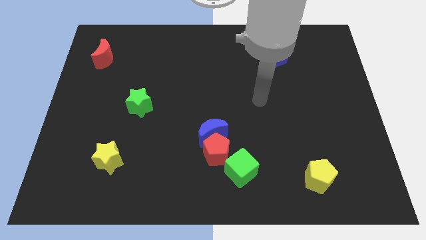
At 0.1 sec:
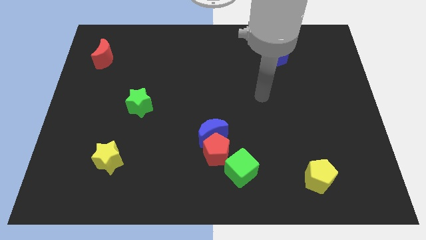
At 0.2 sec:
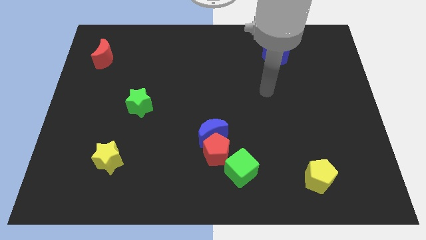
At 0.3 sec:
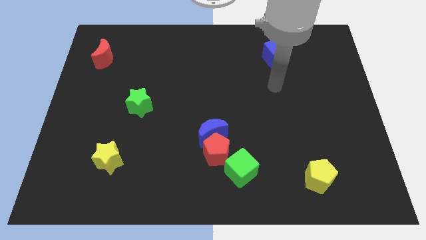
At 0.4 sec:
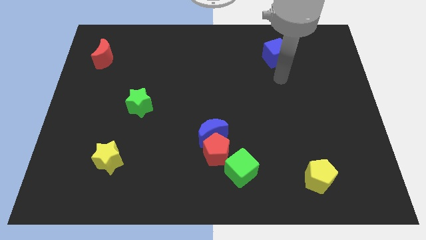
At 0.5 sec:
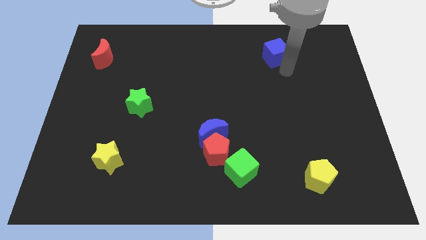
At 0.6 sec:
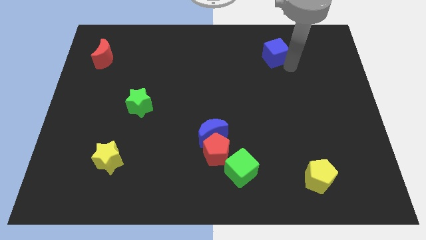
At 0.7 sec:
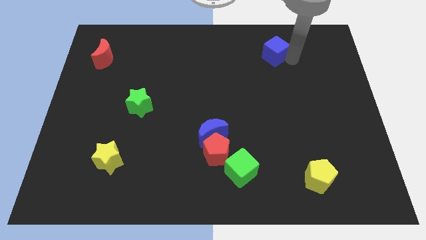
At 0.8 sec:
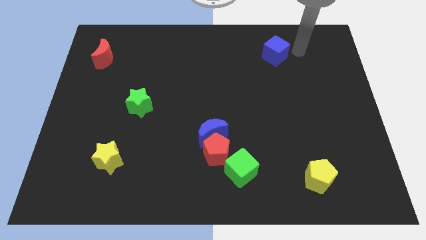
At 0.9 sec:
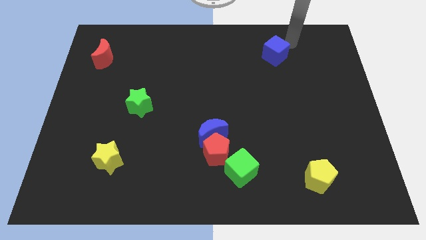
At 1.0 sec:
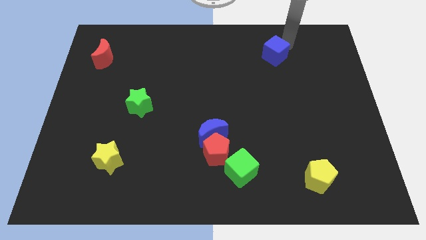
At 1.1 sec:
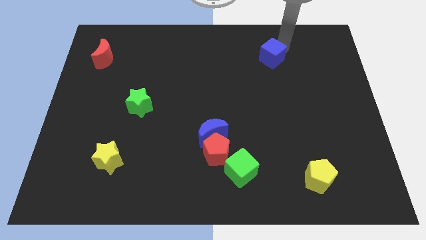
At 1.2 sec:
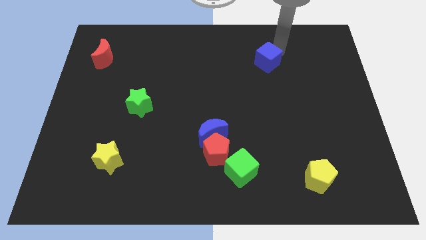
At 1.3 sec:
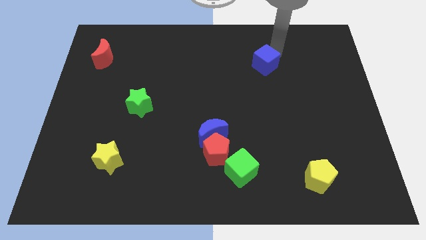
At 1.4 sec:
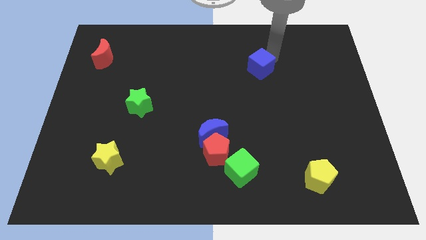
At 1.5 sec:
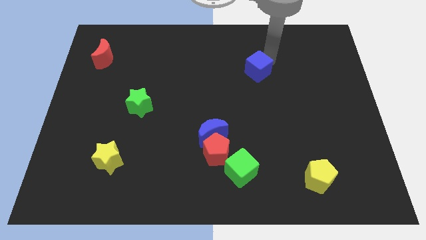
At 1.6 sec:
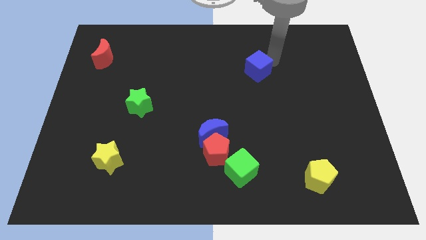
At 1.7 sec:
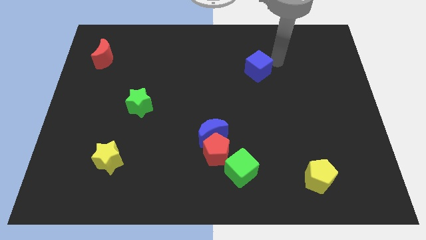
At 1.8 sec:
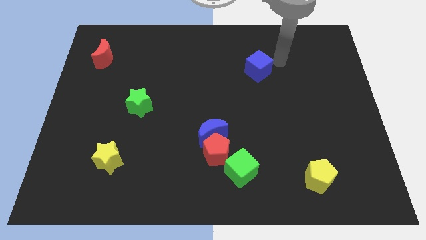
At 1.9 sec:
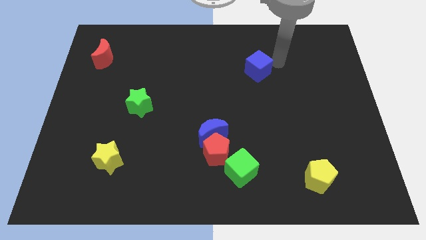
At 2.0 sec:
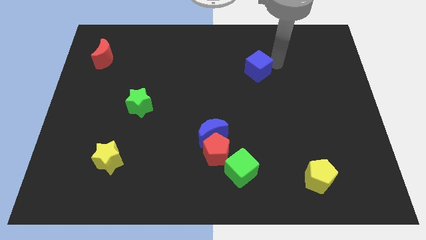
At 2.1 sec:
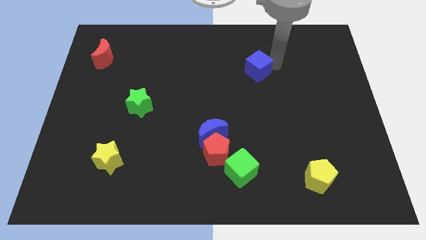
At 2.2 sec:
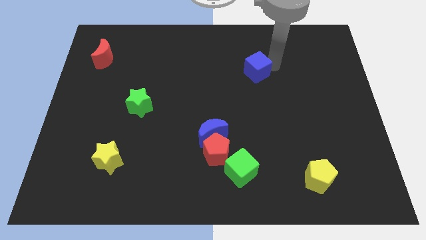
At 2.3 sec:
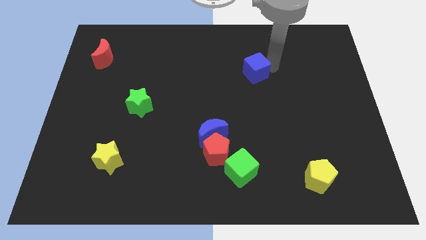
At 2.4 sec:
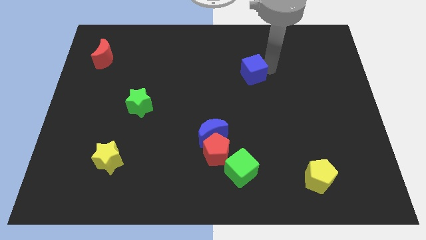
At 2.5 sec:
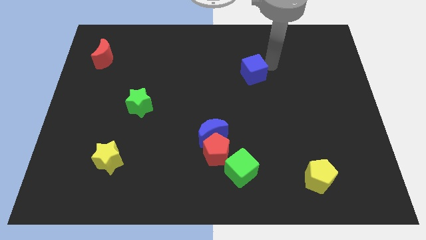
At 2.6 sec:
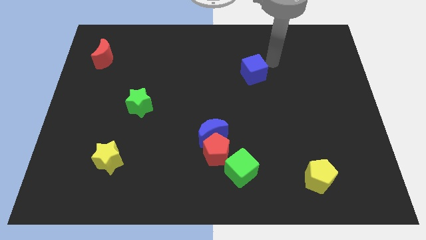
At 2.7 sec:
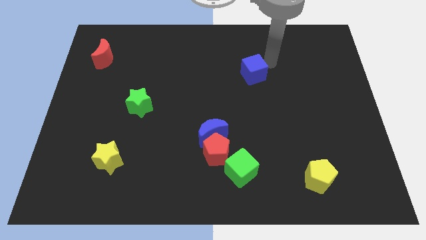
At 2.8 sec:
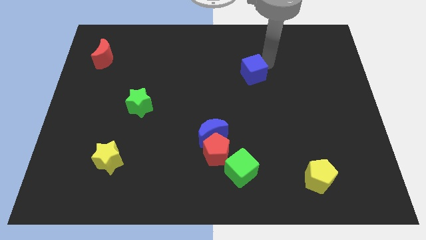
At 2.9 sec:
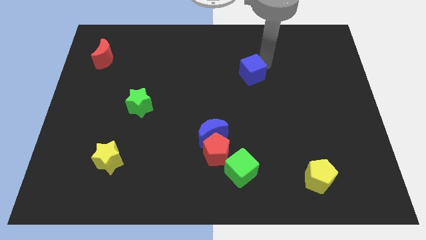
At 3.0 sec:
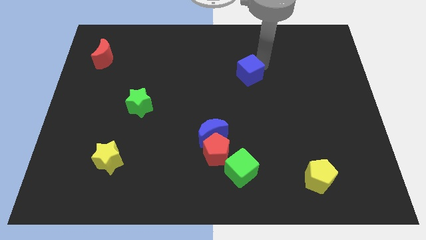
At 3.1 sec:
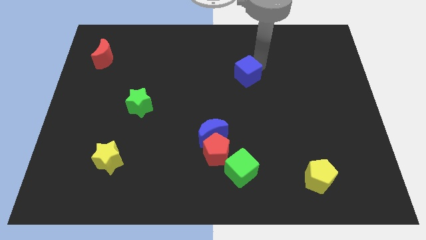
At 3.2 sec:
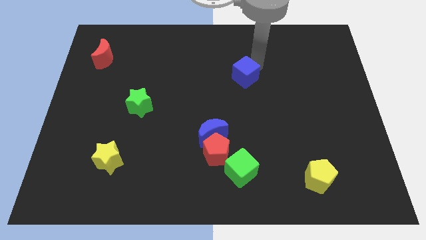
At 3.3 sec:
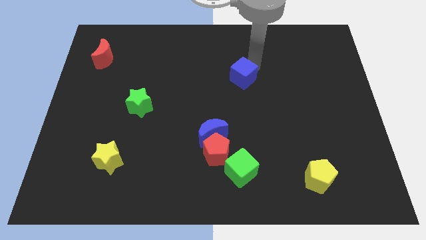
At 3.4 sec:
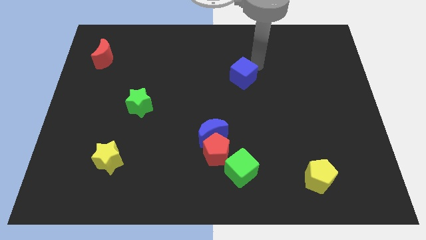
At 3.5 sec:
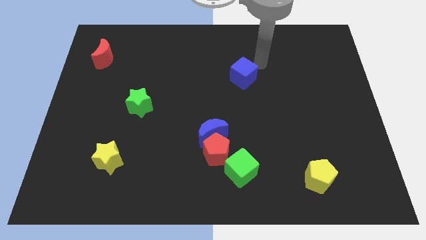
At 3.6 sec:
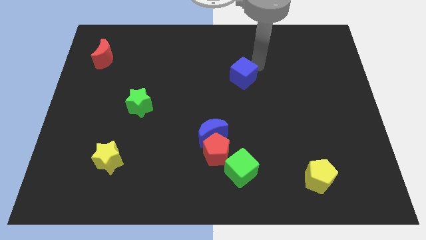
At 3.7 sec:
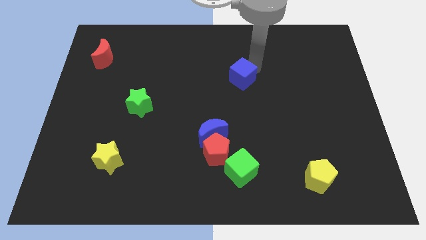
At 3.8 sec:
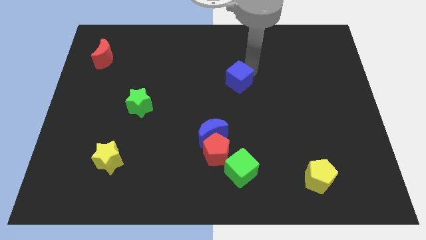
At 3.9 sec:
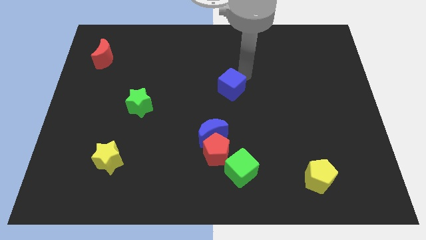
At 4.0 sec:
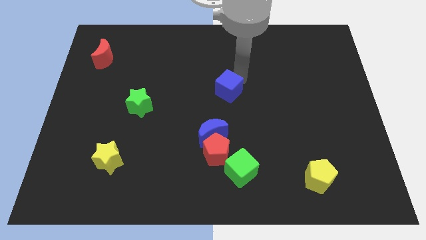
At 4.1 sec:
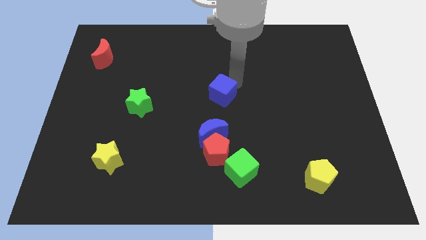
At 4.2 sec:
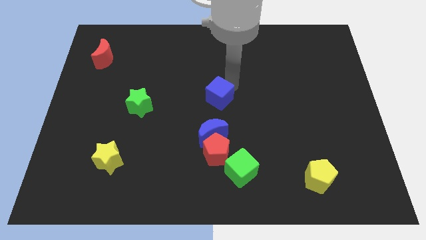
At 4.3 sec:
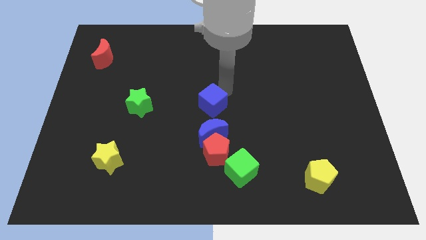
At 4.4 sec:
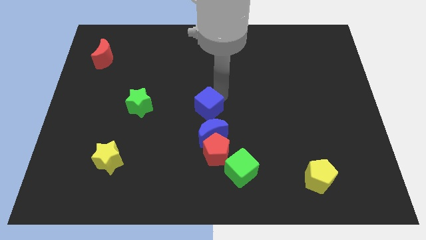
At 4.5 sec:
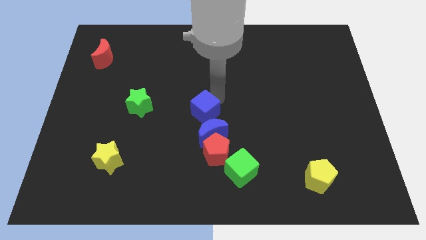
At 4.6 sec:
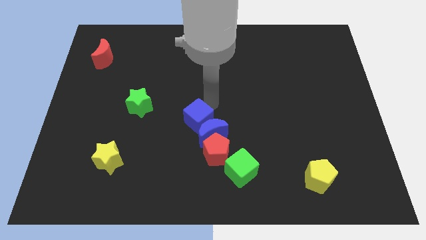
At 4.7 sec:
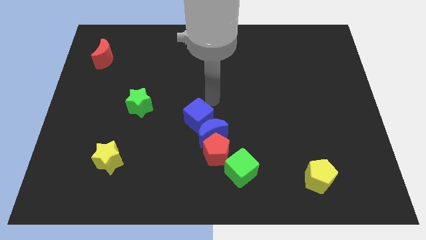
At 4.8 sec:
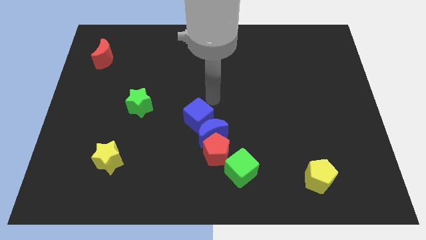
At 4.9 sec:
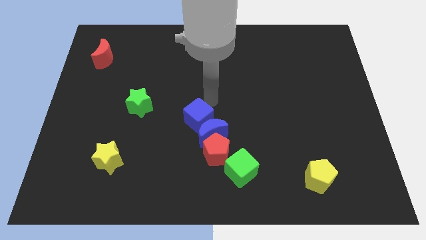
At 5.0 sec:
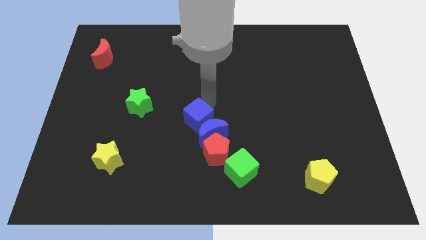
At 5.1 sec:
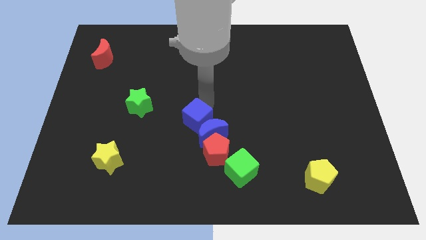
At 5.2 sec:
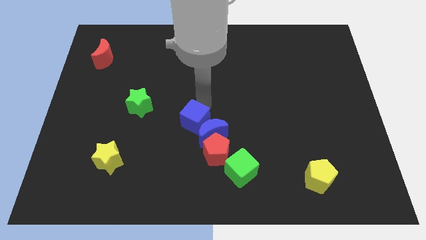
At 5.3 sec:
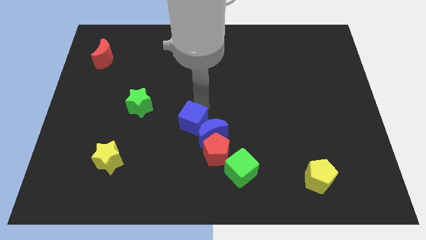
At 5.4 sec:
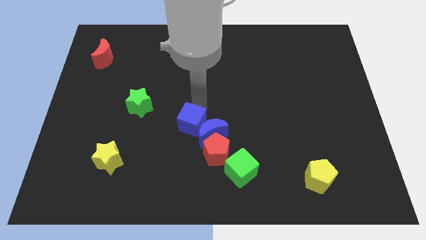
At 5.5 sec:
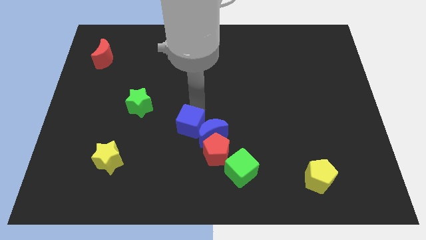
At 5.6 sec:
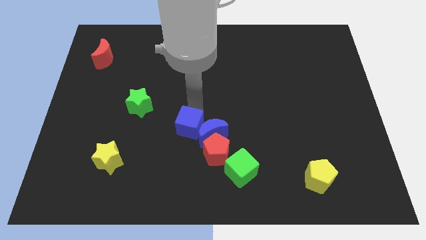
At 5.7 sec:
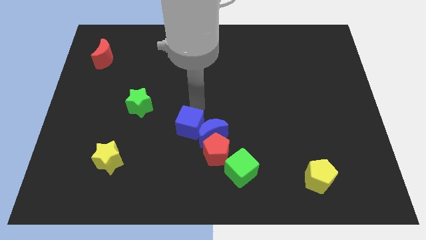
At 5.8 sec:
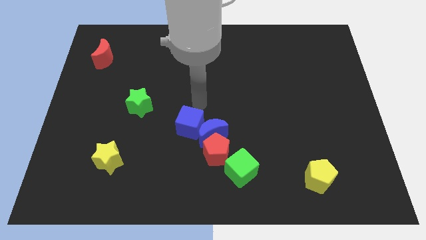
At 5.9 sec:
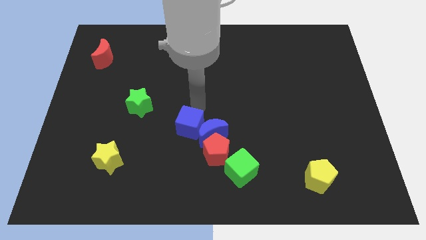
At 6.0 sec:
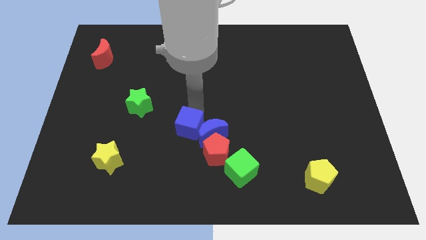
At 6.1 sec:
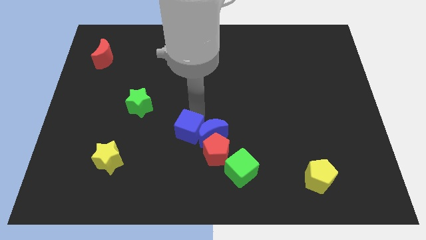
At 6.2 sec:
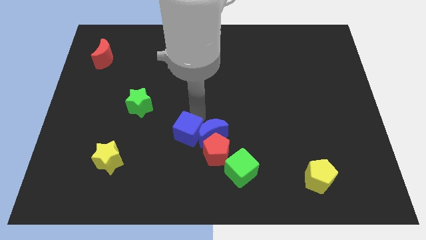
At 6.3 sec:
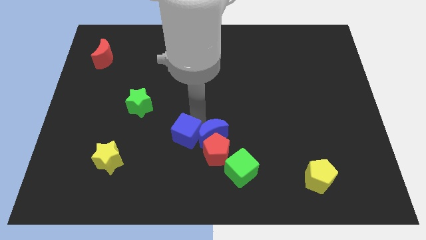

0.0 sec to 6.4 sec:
move the blue cube to the left side of the red pentagon

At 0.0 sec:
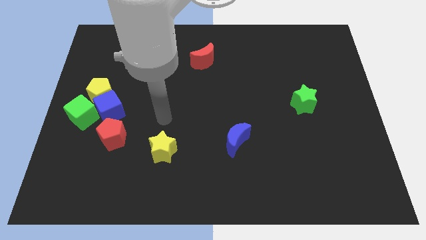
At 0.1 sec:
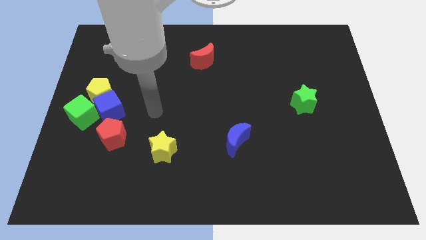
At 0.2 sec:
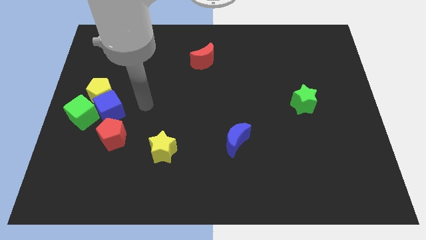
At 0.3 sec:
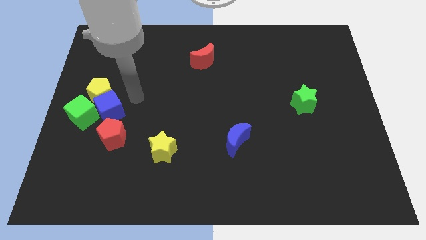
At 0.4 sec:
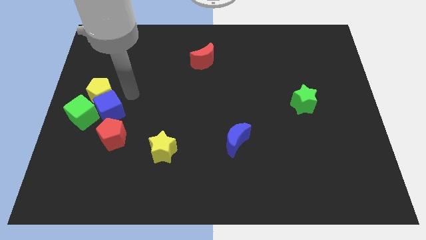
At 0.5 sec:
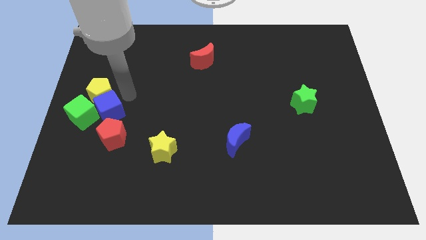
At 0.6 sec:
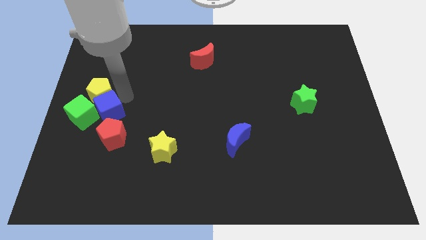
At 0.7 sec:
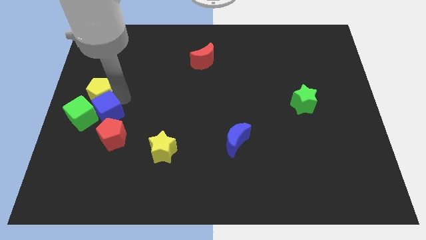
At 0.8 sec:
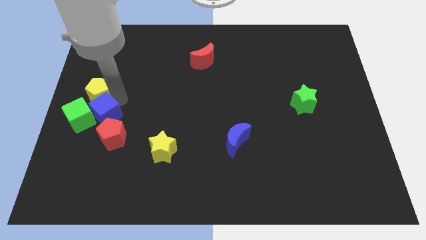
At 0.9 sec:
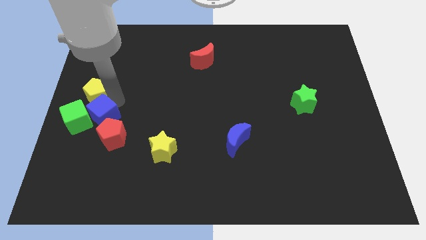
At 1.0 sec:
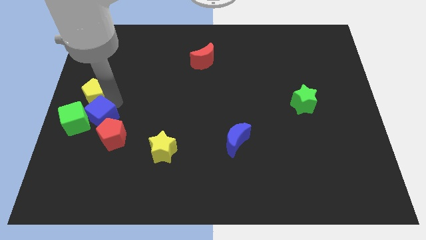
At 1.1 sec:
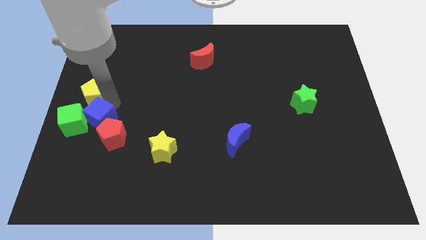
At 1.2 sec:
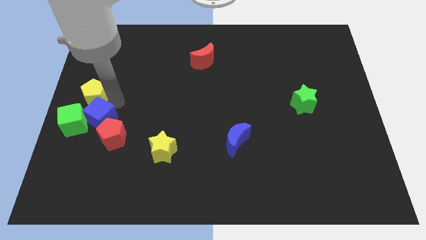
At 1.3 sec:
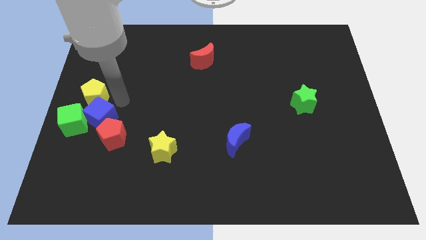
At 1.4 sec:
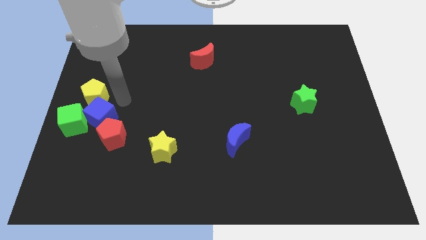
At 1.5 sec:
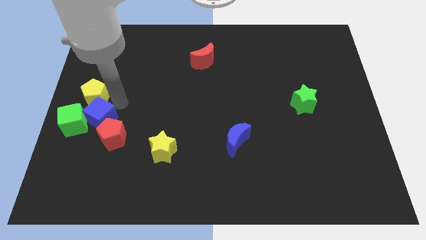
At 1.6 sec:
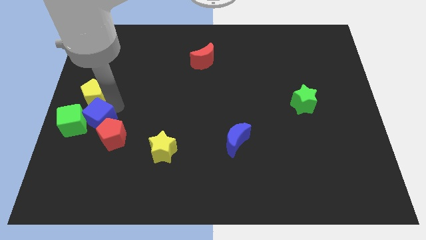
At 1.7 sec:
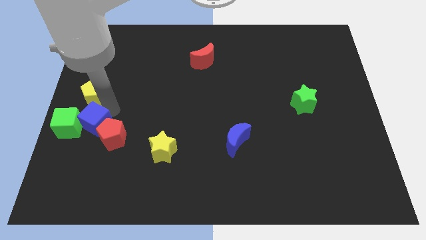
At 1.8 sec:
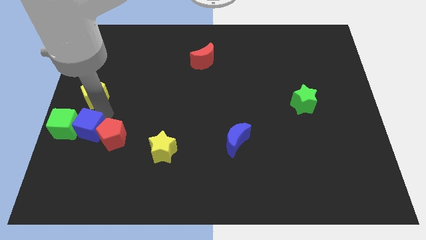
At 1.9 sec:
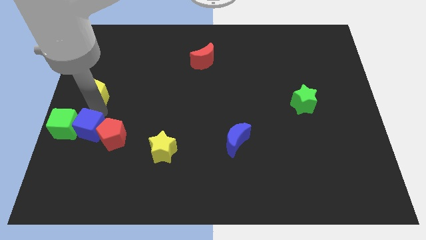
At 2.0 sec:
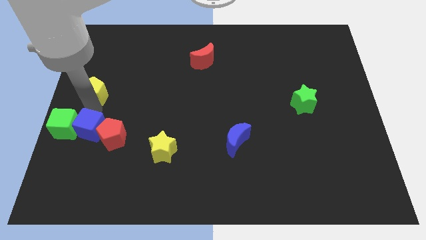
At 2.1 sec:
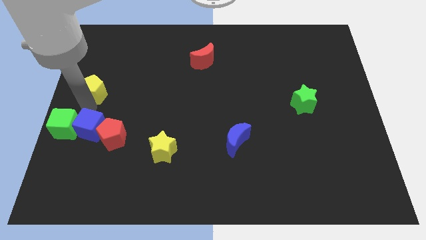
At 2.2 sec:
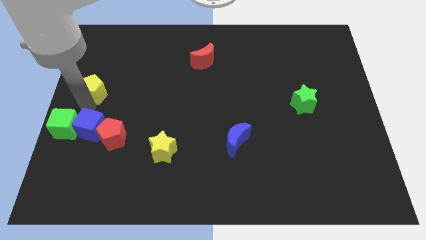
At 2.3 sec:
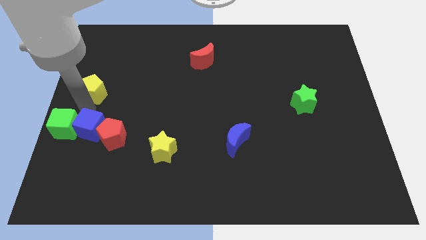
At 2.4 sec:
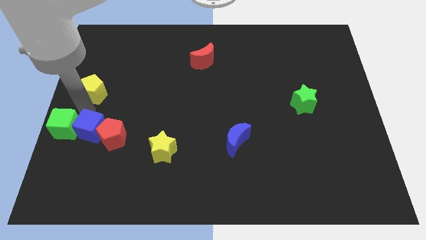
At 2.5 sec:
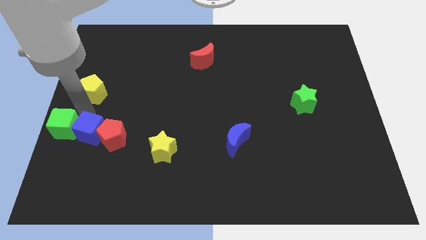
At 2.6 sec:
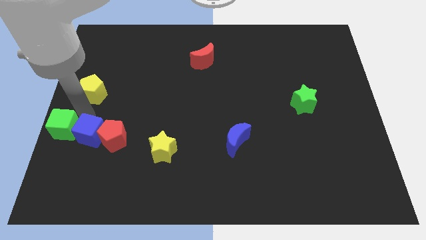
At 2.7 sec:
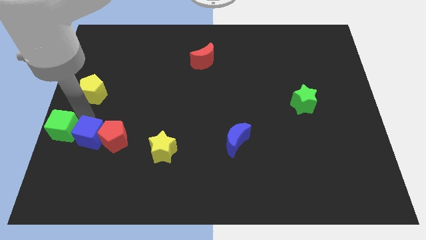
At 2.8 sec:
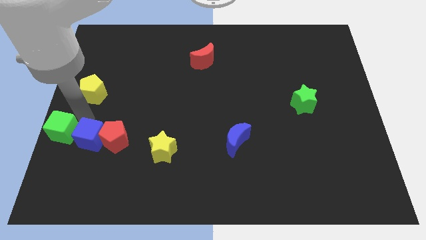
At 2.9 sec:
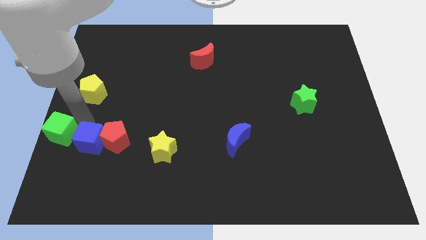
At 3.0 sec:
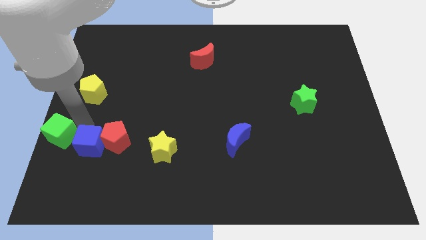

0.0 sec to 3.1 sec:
put the blue cube just left of the yellow star
